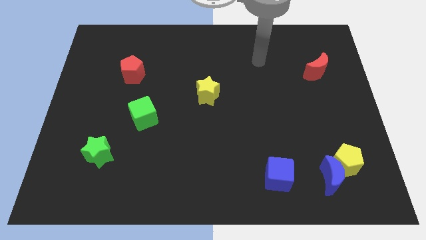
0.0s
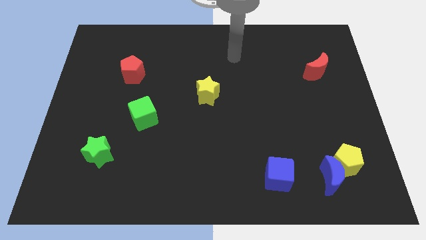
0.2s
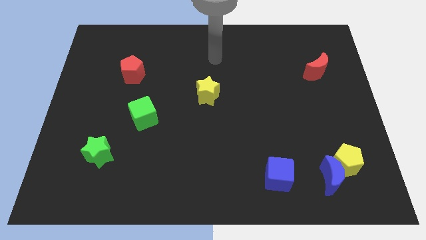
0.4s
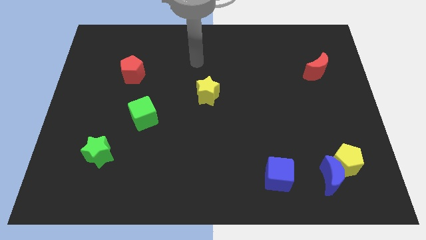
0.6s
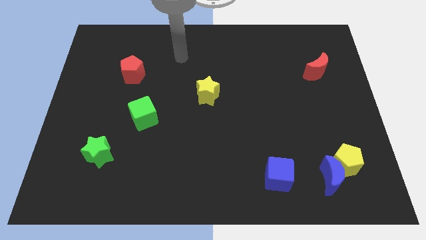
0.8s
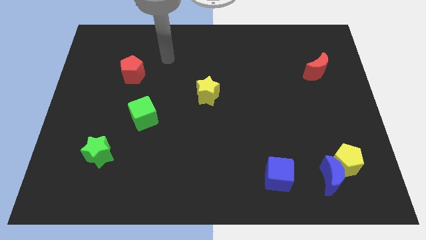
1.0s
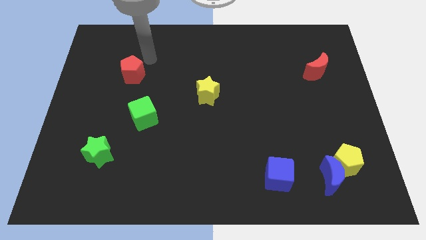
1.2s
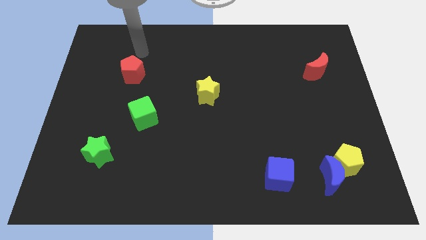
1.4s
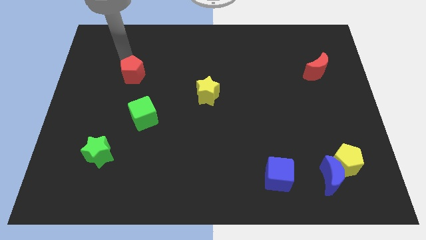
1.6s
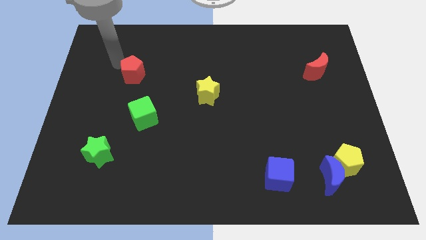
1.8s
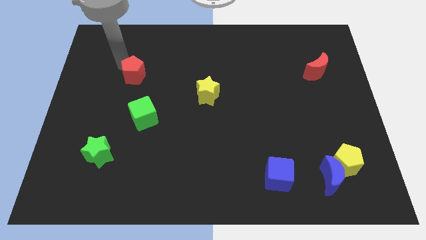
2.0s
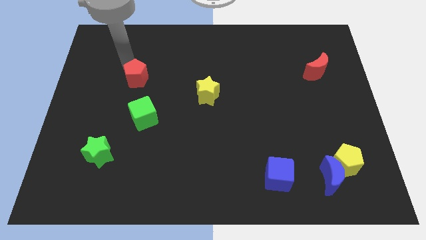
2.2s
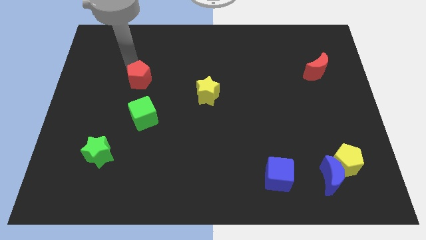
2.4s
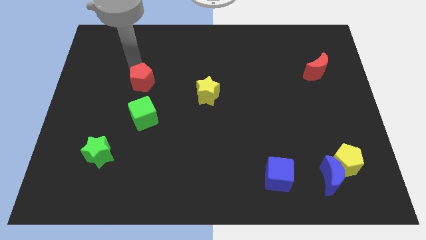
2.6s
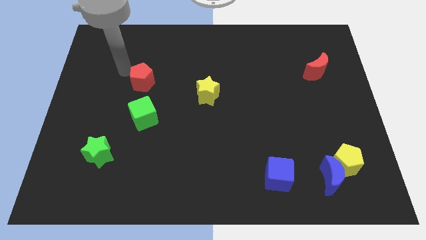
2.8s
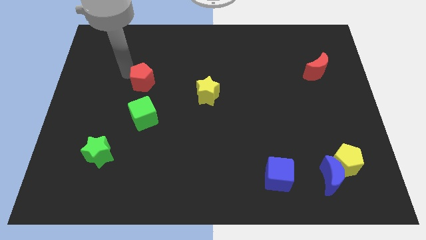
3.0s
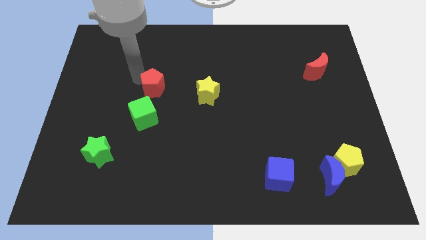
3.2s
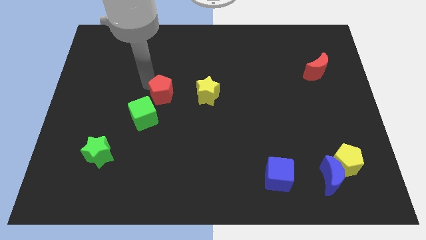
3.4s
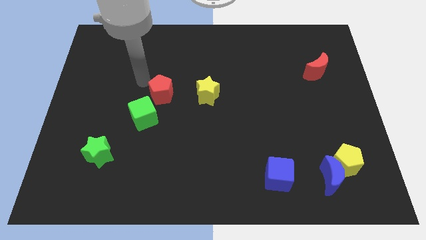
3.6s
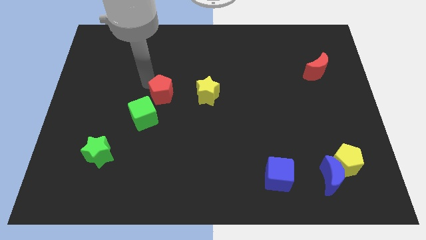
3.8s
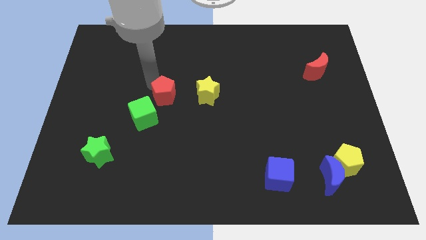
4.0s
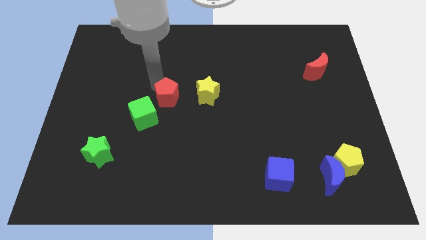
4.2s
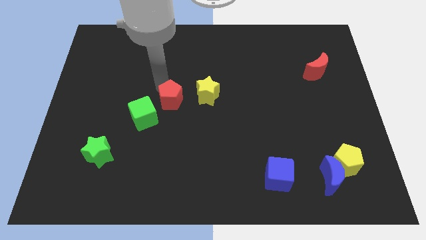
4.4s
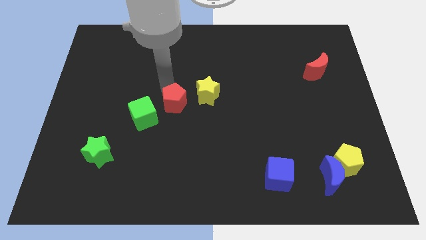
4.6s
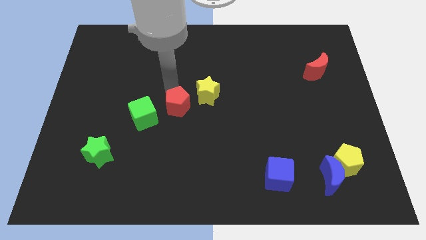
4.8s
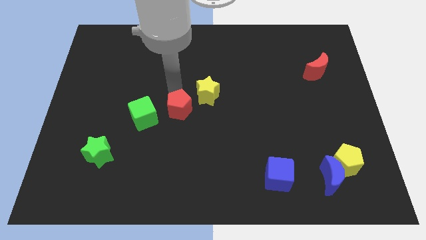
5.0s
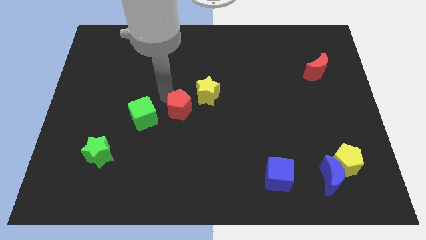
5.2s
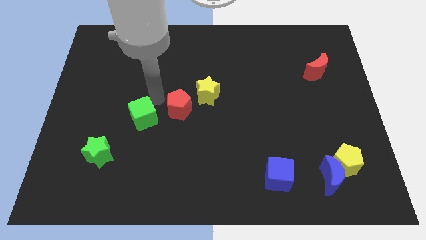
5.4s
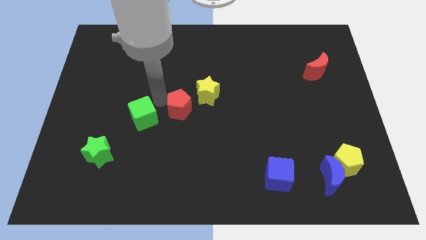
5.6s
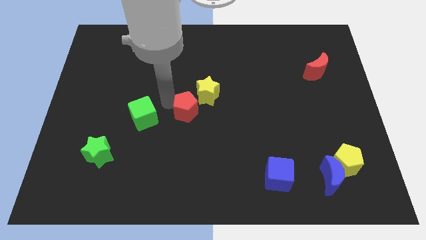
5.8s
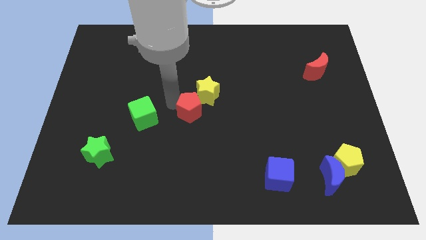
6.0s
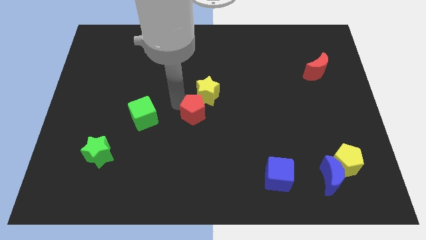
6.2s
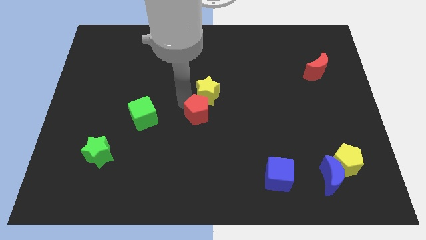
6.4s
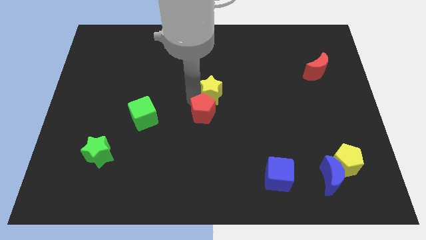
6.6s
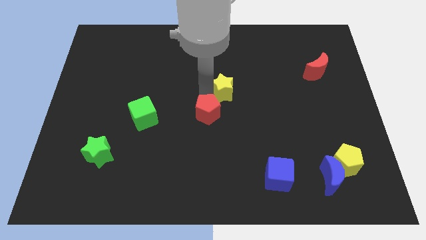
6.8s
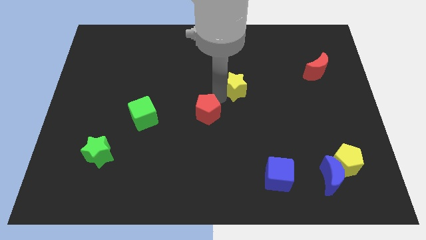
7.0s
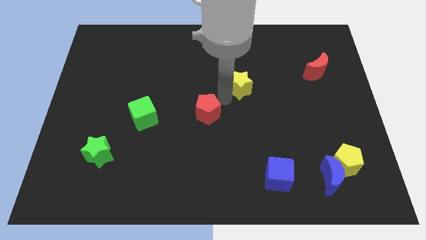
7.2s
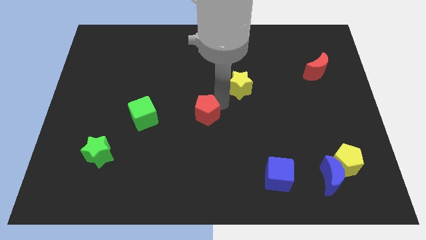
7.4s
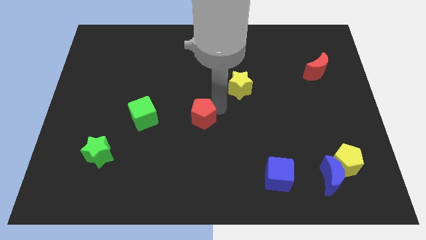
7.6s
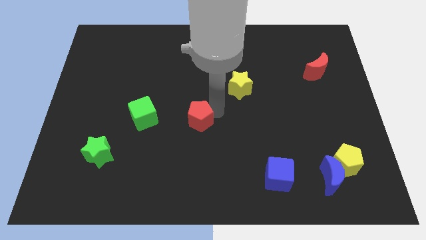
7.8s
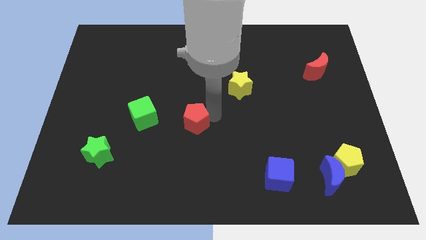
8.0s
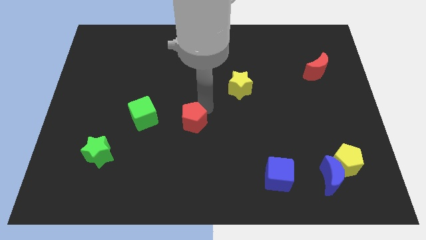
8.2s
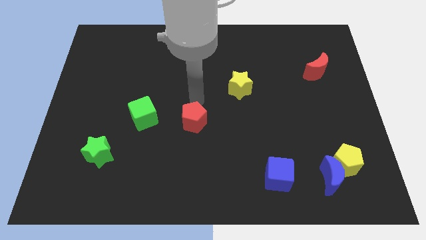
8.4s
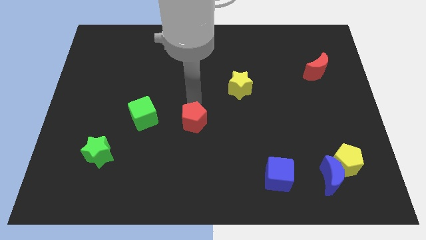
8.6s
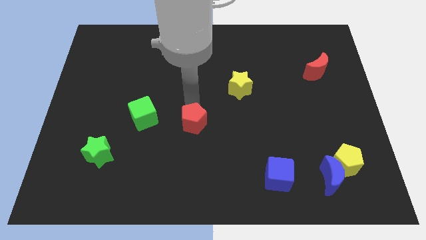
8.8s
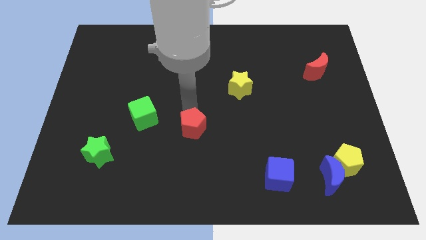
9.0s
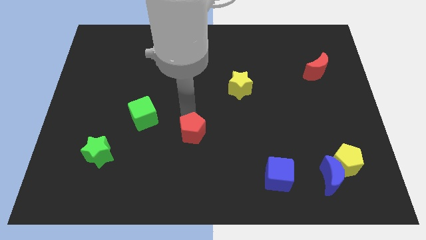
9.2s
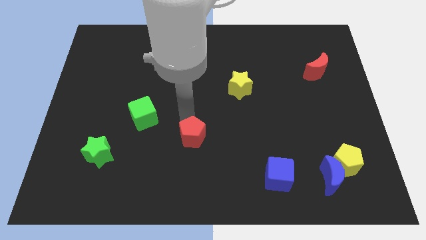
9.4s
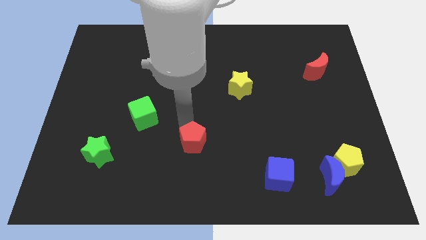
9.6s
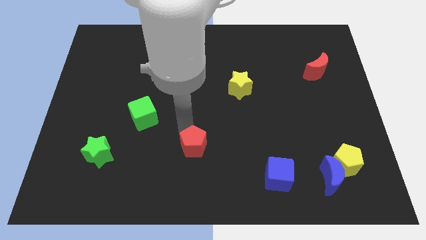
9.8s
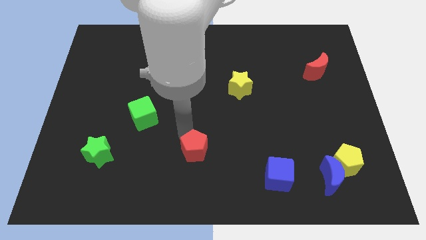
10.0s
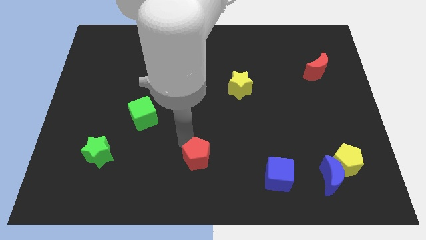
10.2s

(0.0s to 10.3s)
move the red pentagon to the bottom side

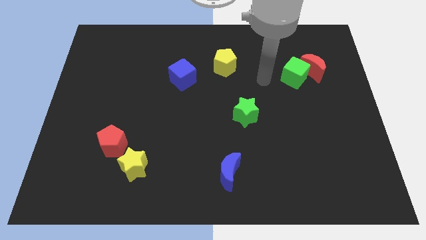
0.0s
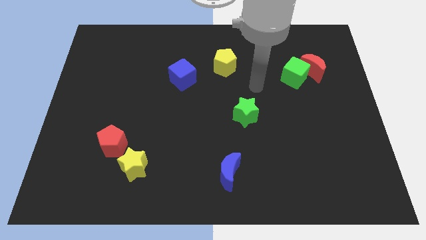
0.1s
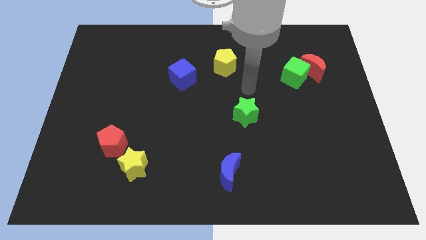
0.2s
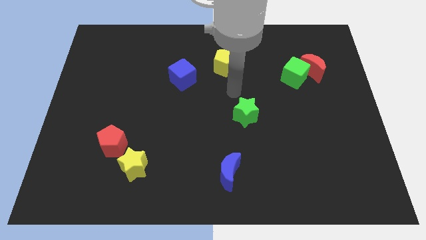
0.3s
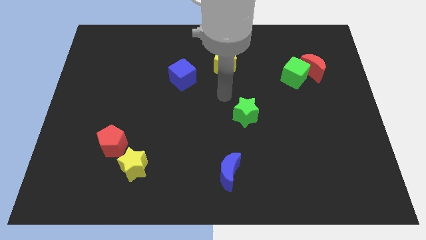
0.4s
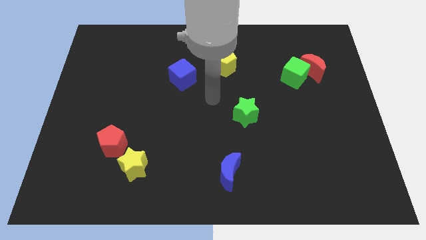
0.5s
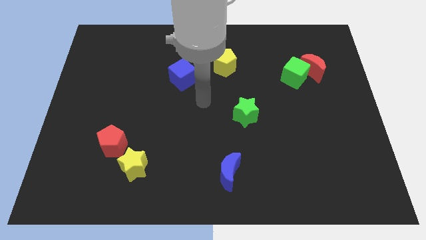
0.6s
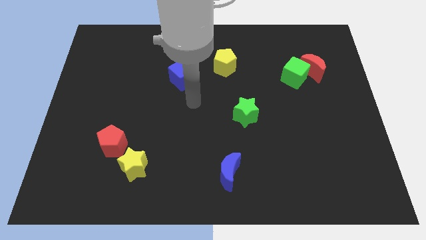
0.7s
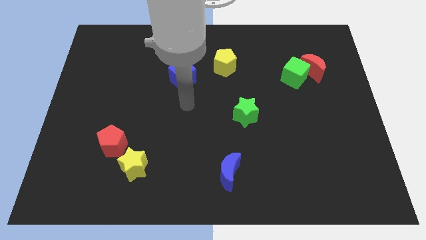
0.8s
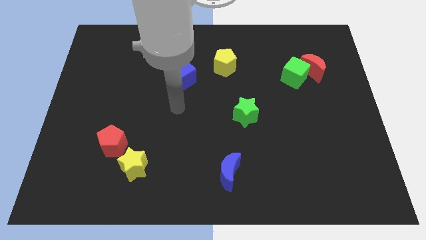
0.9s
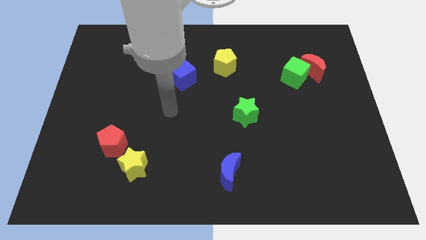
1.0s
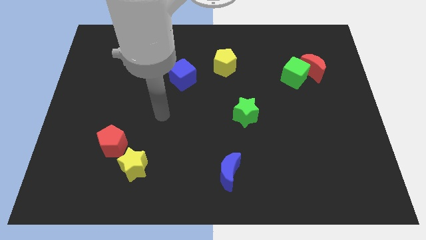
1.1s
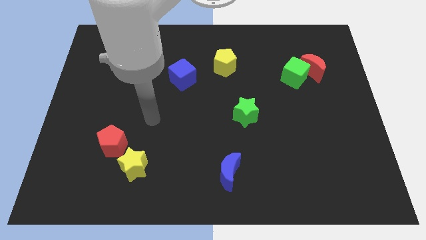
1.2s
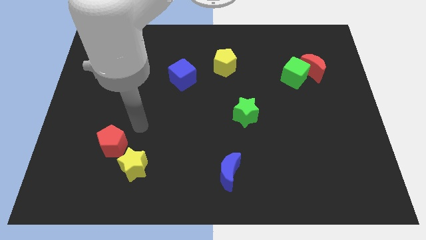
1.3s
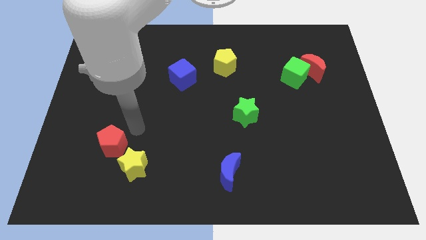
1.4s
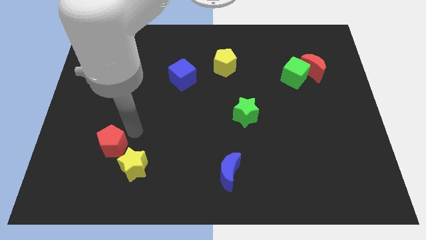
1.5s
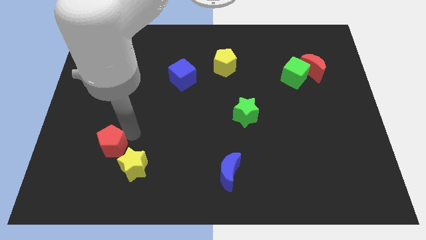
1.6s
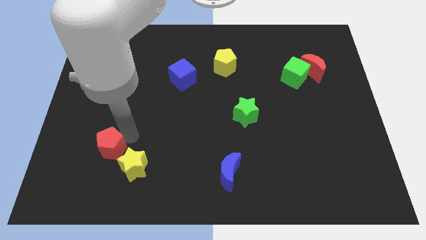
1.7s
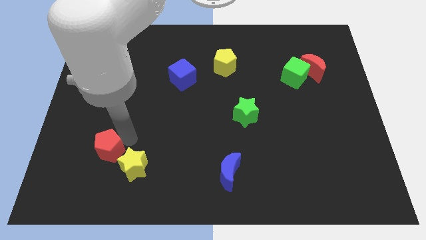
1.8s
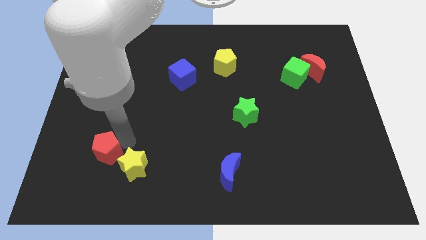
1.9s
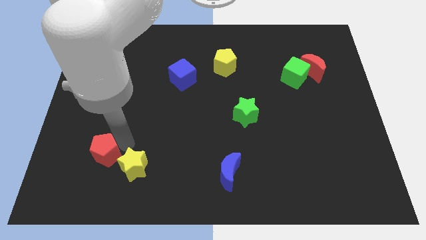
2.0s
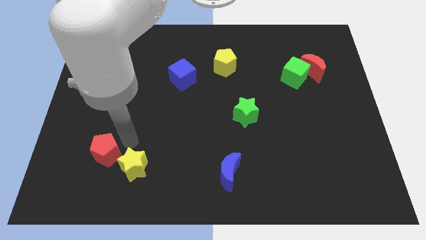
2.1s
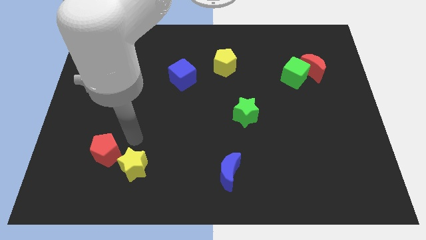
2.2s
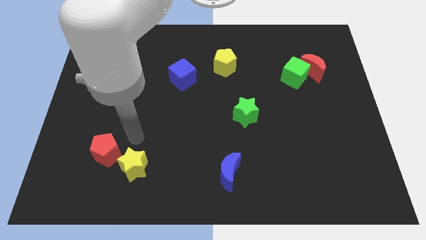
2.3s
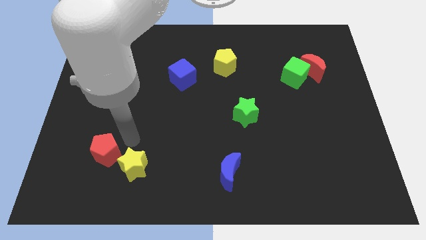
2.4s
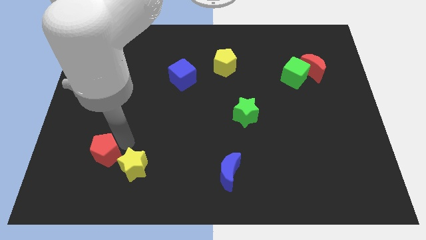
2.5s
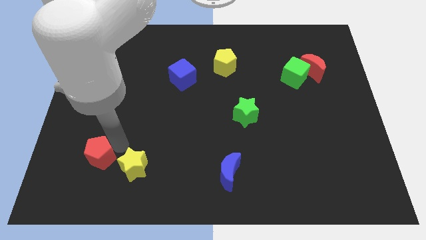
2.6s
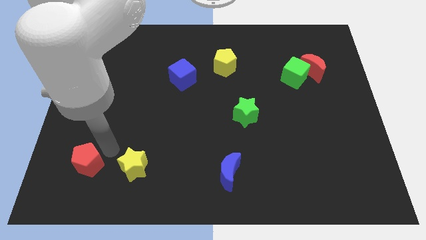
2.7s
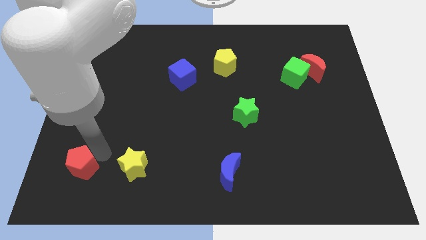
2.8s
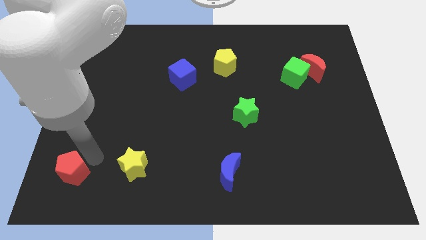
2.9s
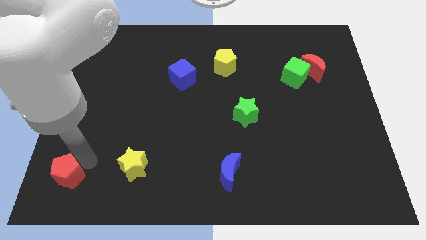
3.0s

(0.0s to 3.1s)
put the red pentagon to the bottom left of the board
